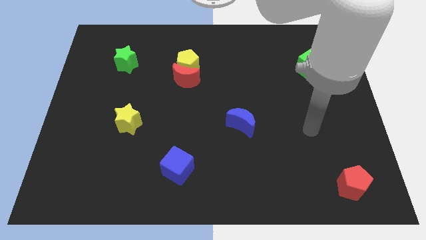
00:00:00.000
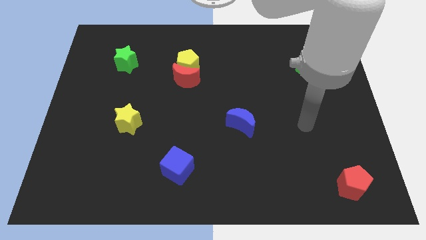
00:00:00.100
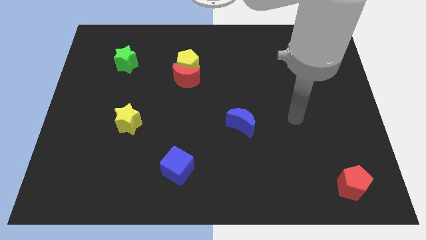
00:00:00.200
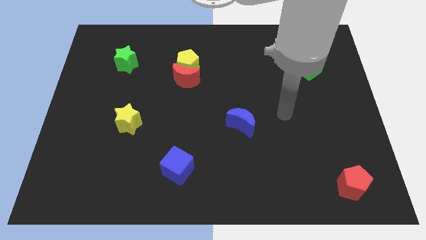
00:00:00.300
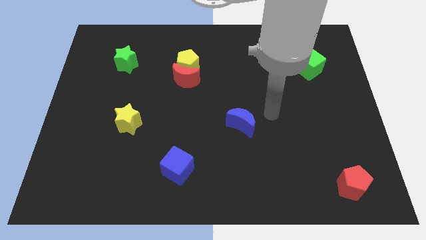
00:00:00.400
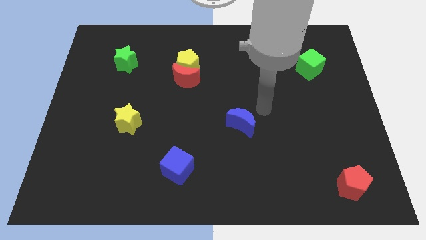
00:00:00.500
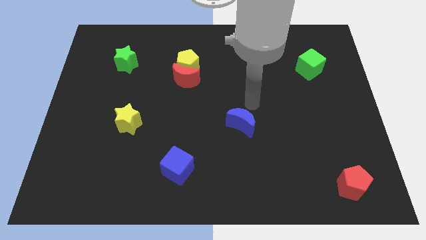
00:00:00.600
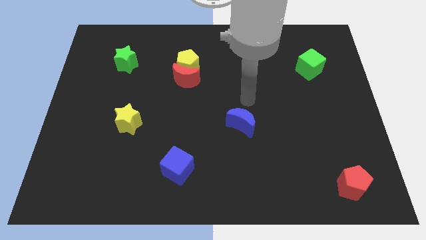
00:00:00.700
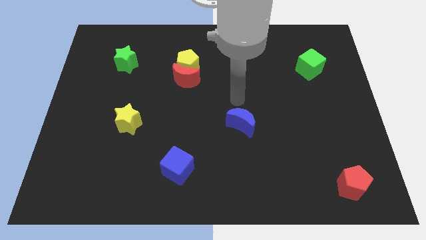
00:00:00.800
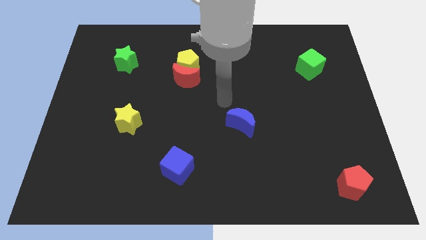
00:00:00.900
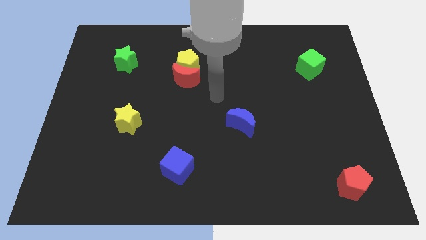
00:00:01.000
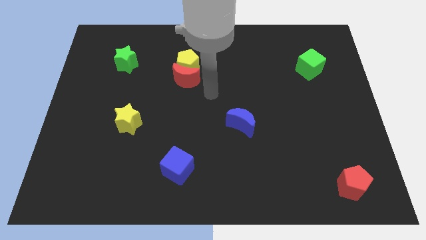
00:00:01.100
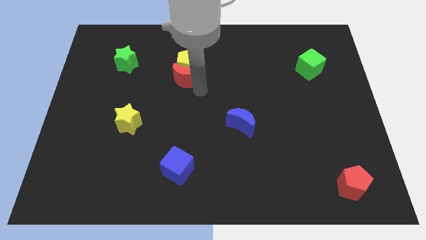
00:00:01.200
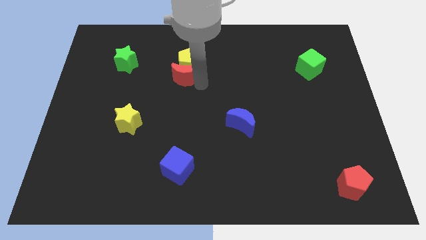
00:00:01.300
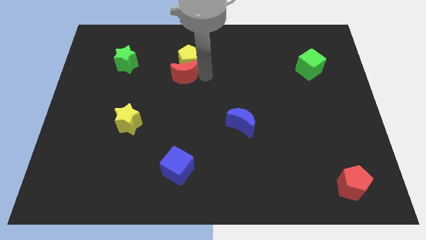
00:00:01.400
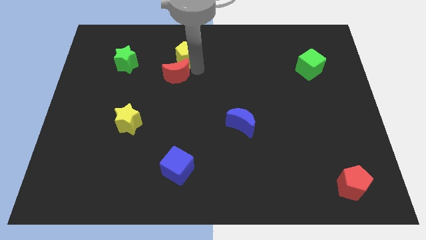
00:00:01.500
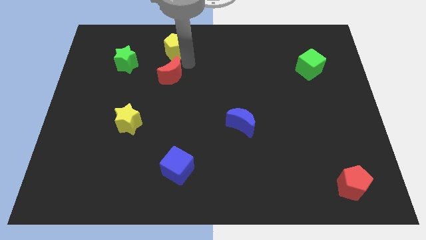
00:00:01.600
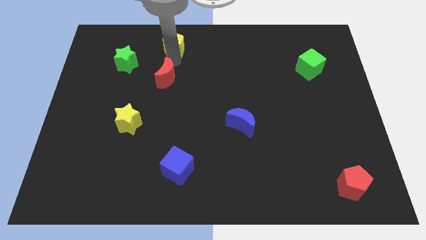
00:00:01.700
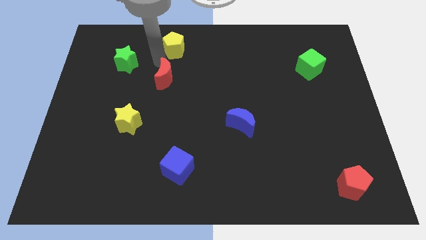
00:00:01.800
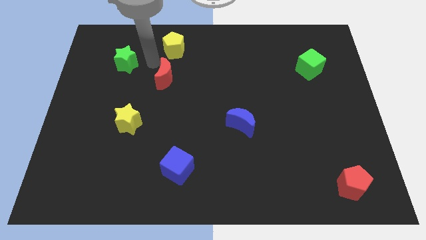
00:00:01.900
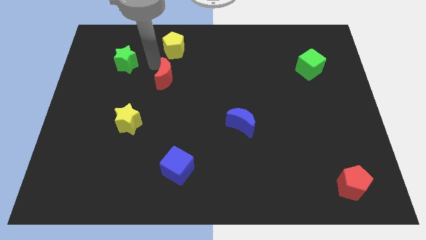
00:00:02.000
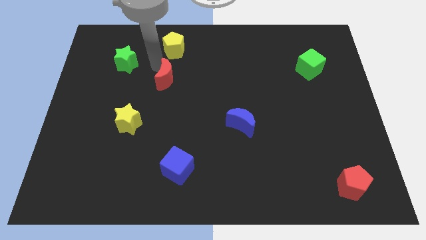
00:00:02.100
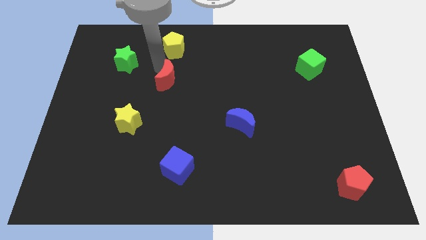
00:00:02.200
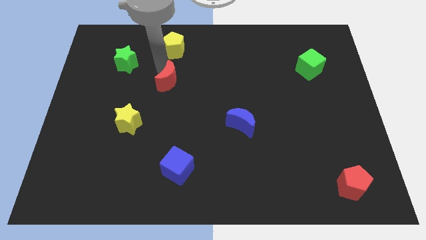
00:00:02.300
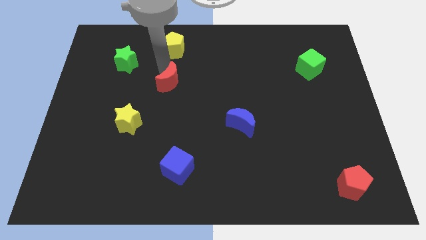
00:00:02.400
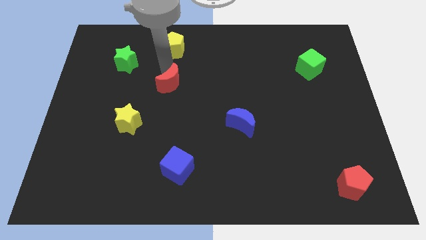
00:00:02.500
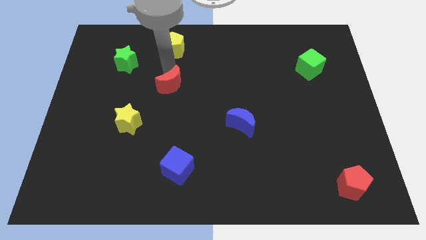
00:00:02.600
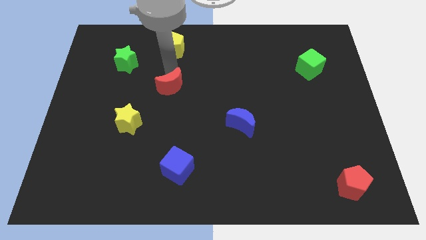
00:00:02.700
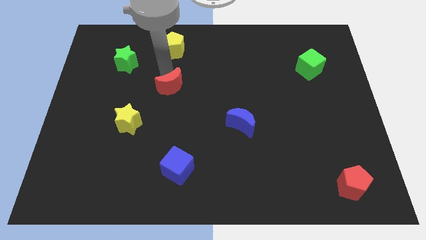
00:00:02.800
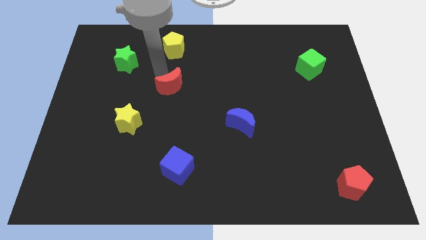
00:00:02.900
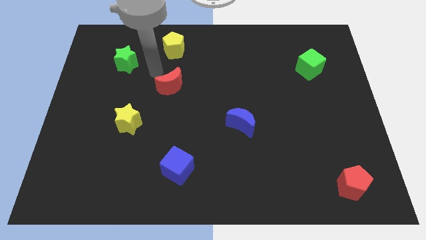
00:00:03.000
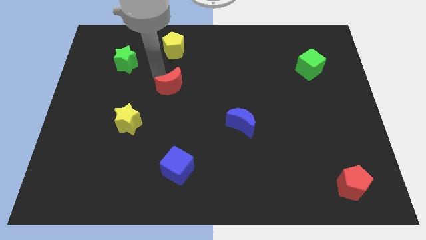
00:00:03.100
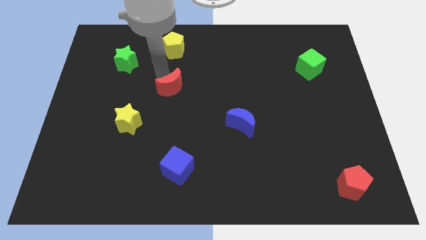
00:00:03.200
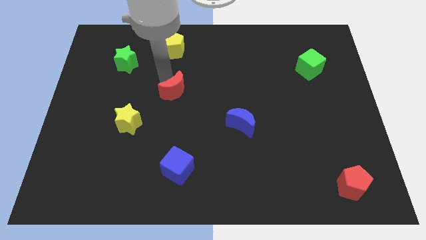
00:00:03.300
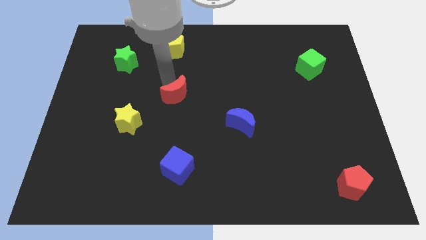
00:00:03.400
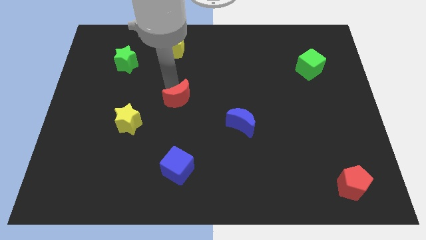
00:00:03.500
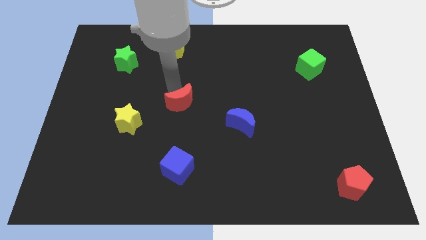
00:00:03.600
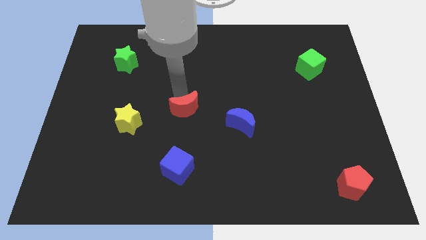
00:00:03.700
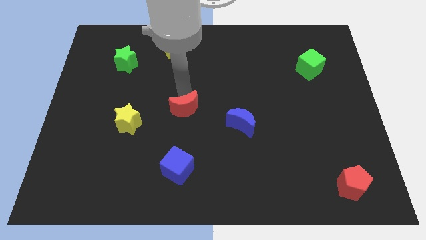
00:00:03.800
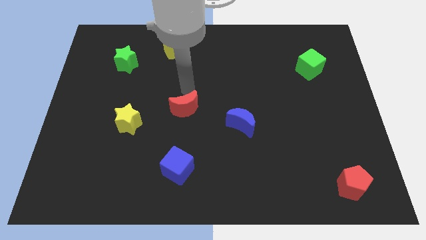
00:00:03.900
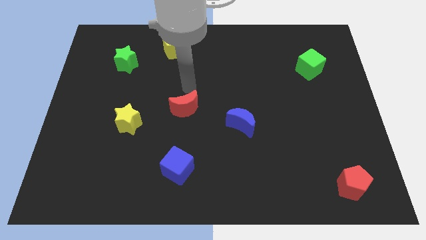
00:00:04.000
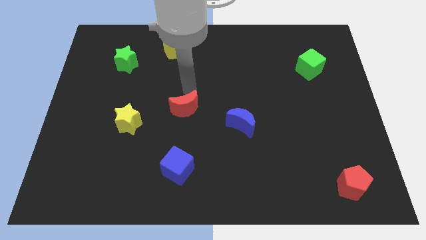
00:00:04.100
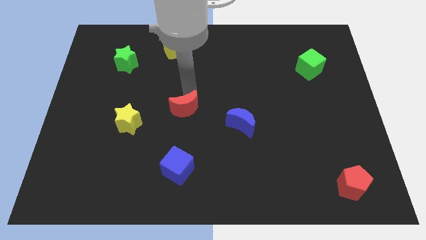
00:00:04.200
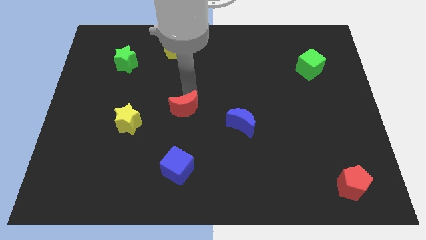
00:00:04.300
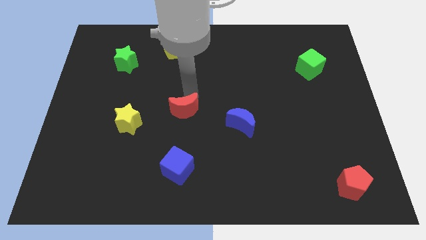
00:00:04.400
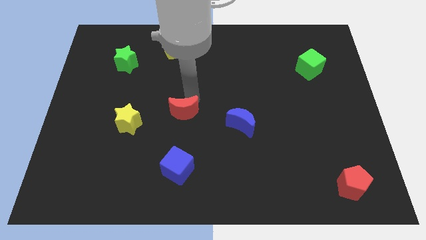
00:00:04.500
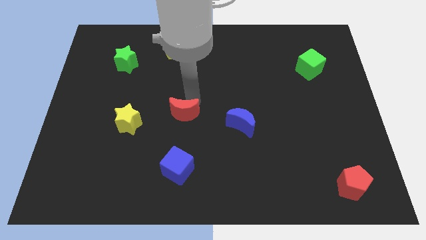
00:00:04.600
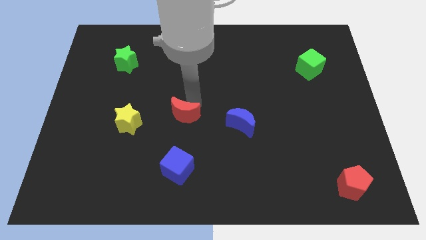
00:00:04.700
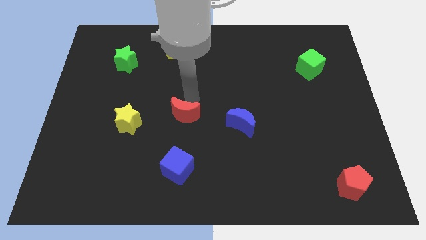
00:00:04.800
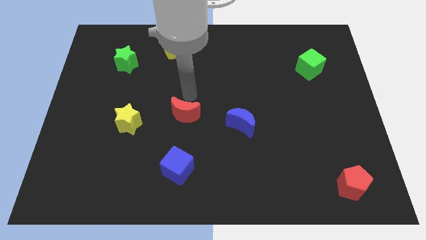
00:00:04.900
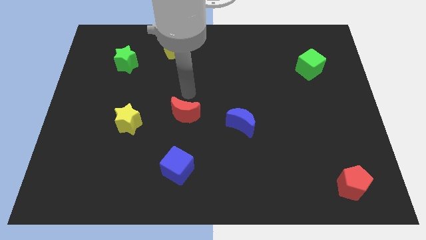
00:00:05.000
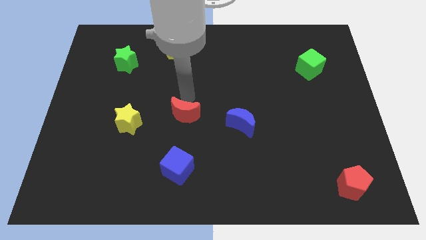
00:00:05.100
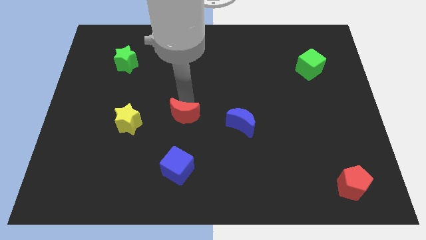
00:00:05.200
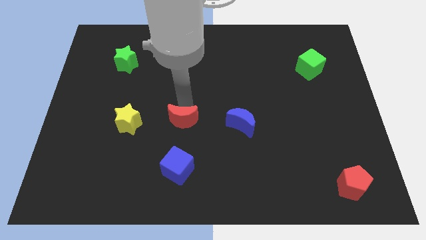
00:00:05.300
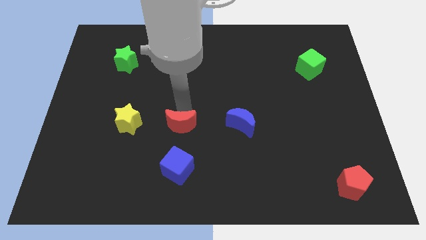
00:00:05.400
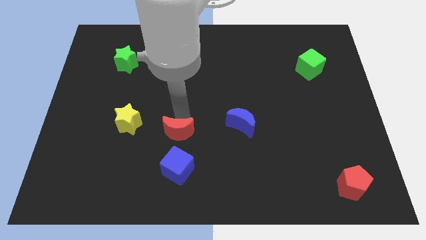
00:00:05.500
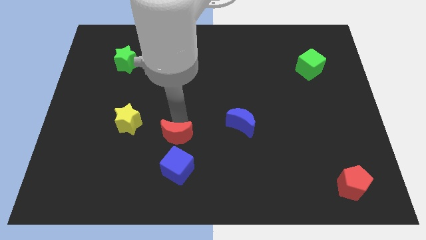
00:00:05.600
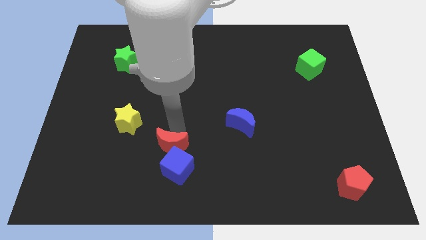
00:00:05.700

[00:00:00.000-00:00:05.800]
slide the red moon next to the blue cube

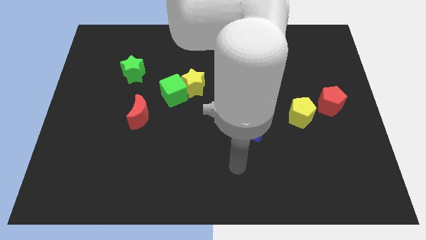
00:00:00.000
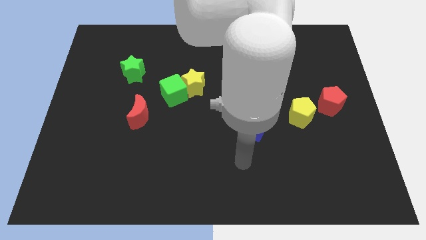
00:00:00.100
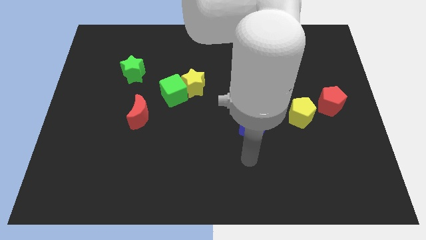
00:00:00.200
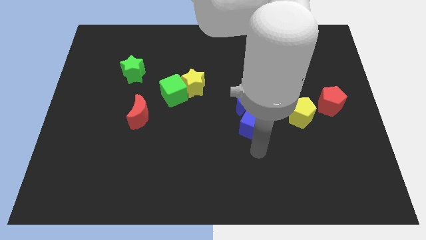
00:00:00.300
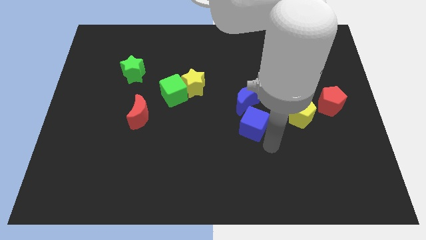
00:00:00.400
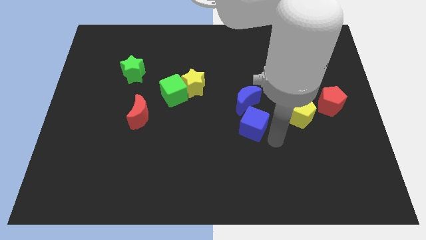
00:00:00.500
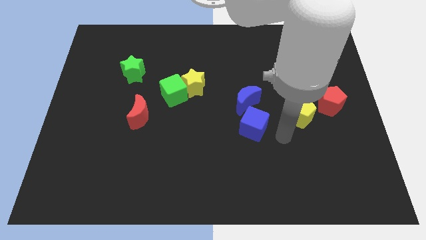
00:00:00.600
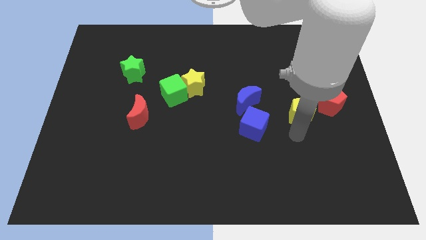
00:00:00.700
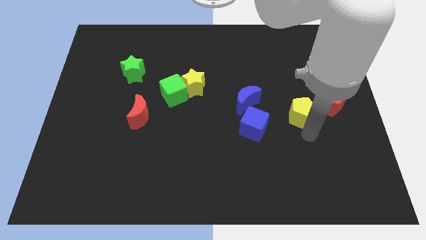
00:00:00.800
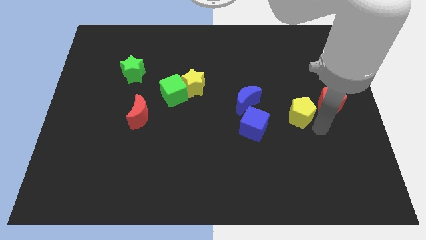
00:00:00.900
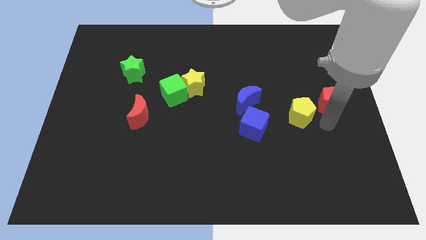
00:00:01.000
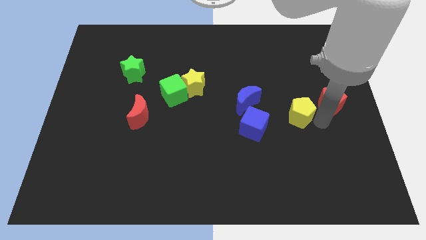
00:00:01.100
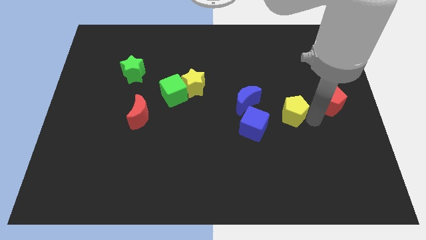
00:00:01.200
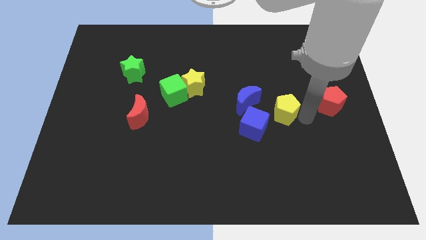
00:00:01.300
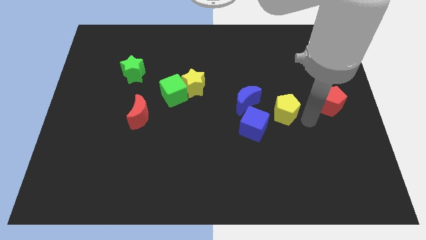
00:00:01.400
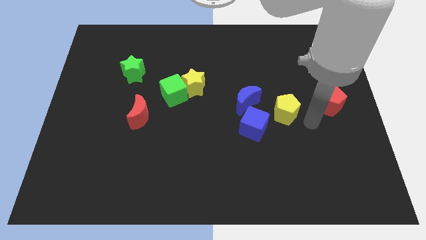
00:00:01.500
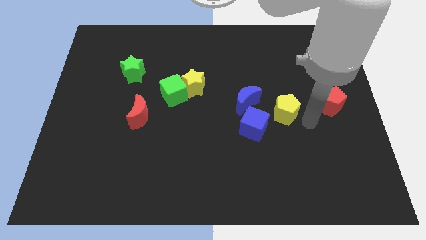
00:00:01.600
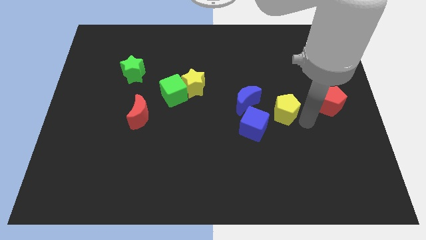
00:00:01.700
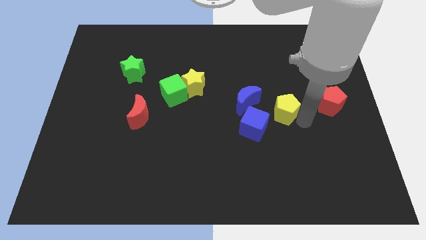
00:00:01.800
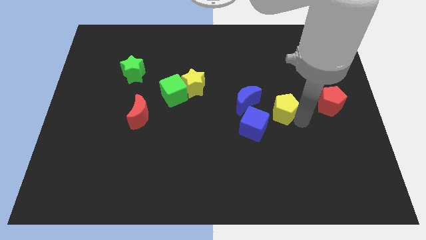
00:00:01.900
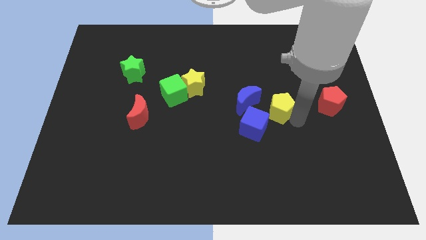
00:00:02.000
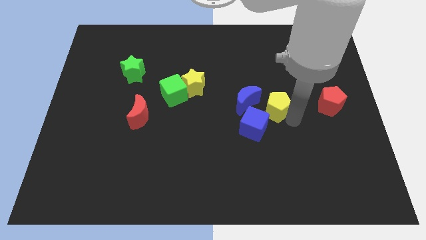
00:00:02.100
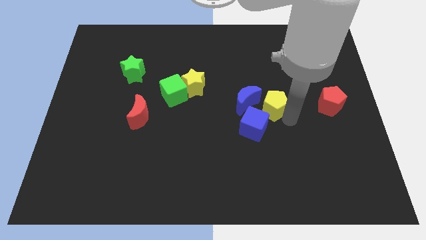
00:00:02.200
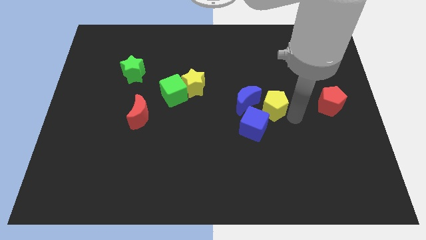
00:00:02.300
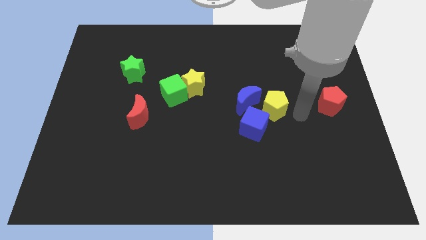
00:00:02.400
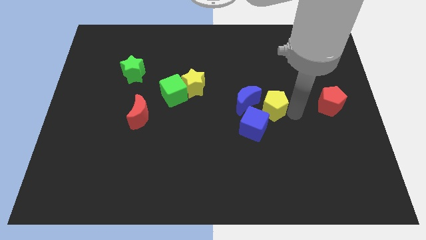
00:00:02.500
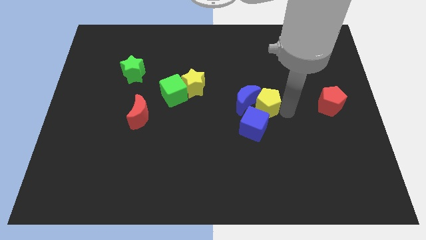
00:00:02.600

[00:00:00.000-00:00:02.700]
slide the yellow pentagon towards the blue moon
